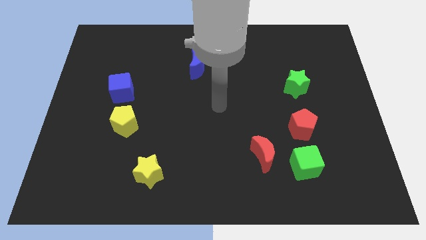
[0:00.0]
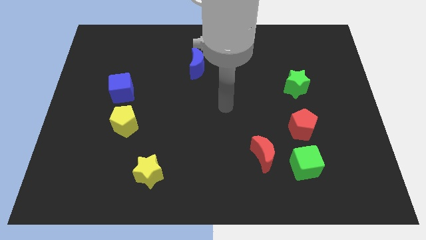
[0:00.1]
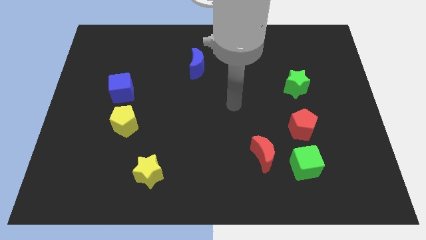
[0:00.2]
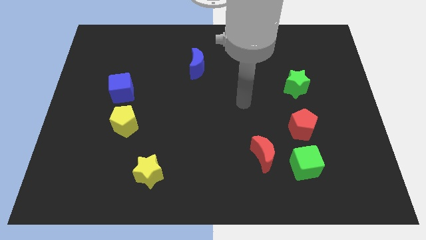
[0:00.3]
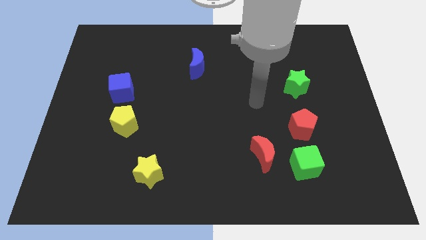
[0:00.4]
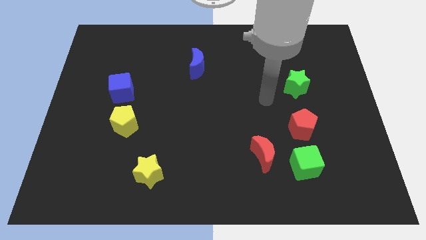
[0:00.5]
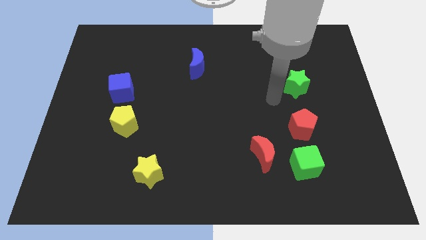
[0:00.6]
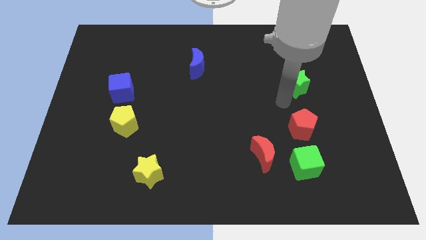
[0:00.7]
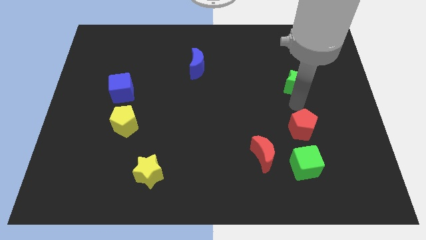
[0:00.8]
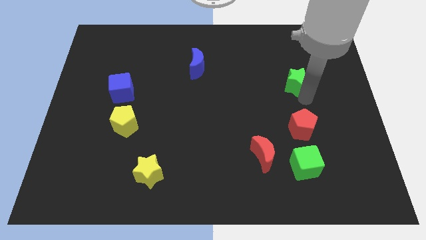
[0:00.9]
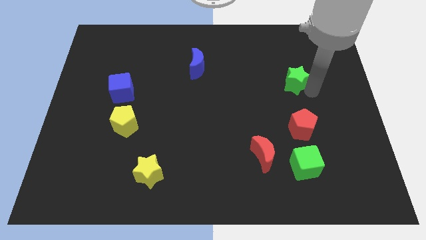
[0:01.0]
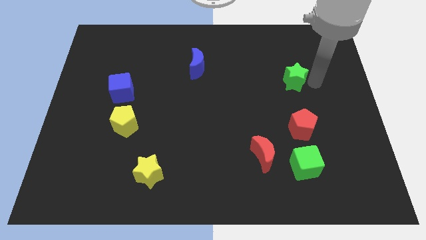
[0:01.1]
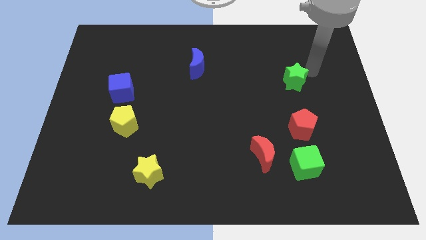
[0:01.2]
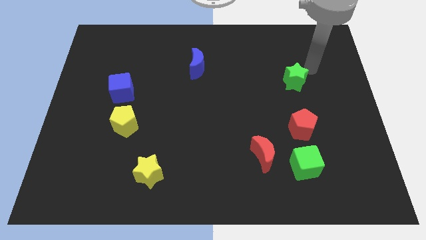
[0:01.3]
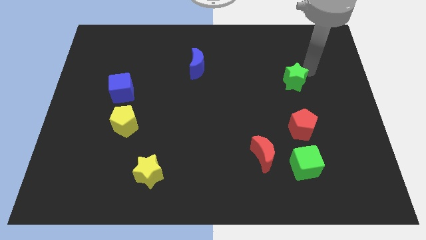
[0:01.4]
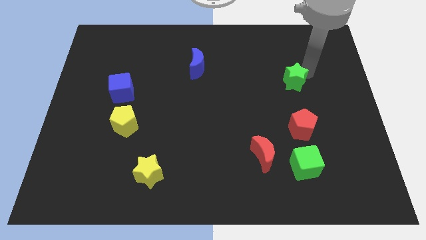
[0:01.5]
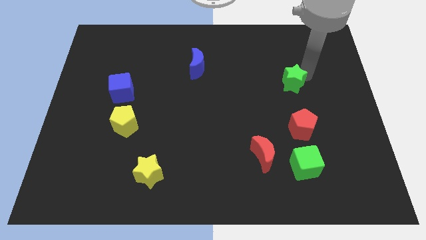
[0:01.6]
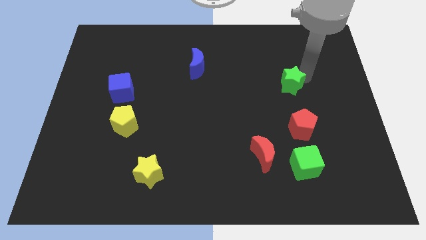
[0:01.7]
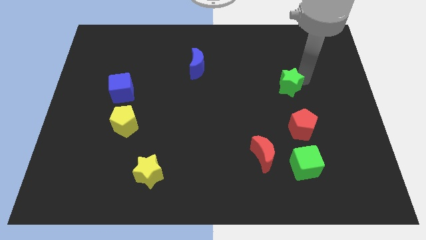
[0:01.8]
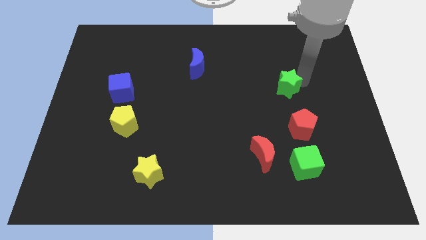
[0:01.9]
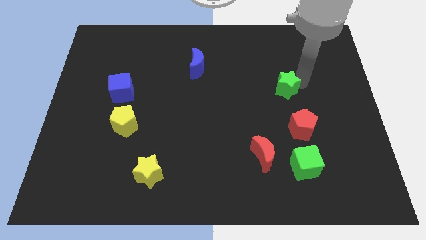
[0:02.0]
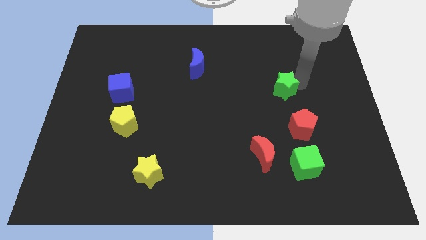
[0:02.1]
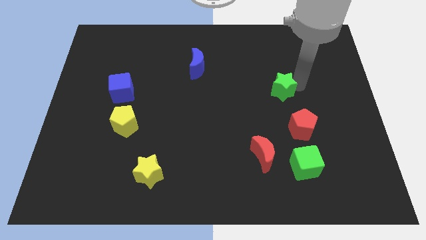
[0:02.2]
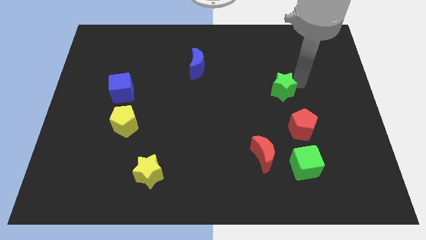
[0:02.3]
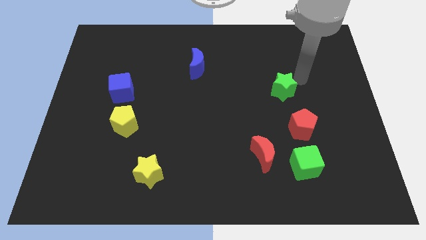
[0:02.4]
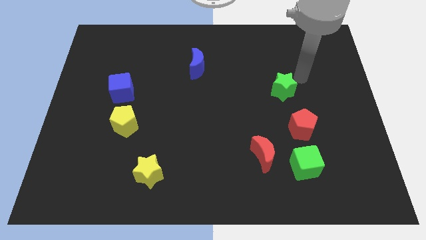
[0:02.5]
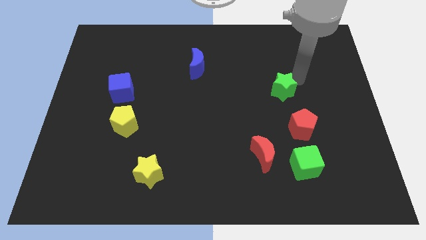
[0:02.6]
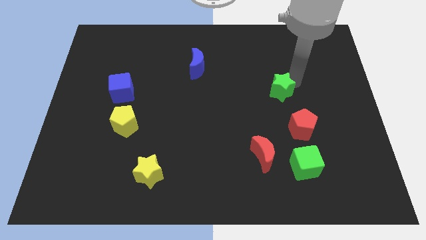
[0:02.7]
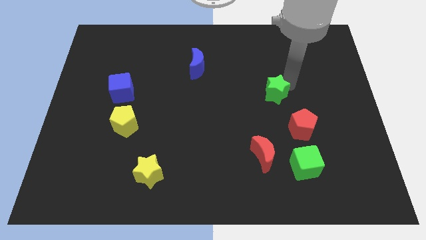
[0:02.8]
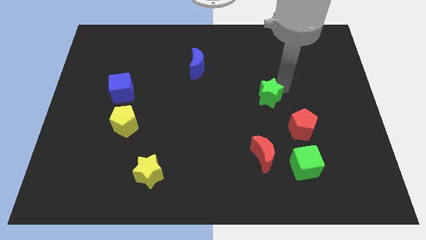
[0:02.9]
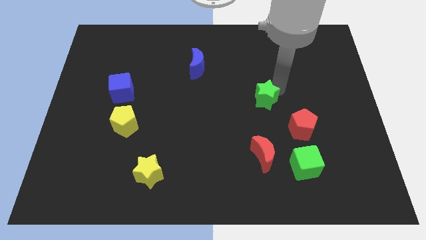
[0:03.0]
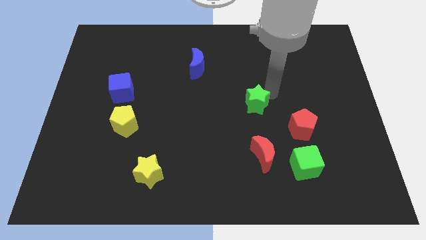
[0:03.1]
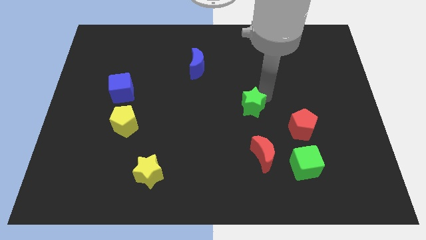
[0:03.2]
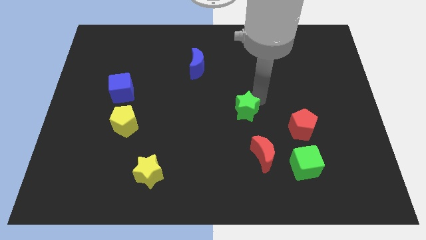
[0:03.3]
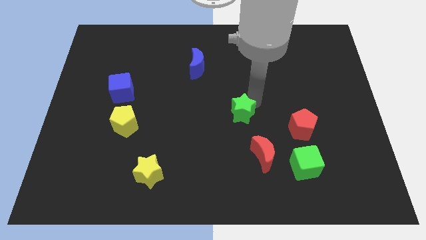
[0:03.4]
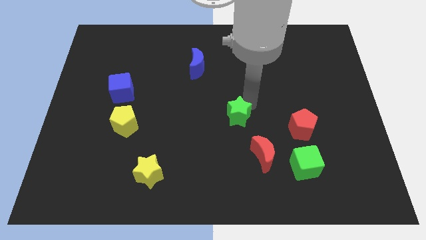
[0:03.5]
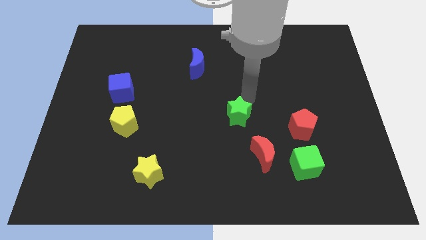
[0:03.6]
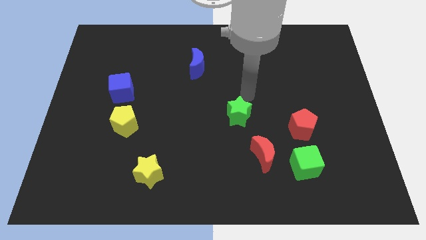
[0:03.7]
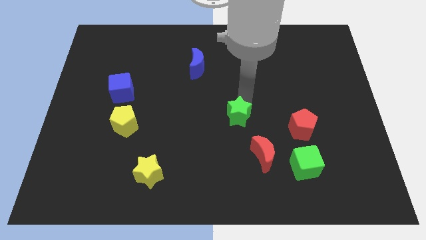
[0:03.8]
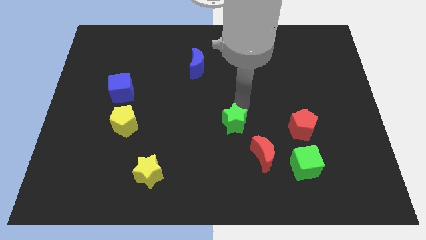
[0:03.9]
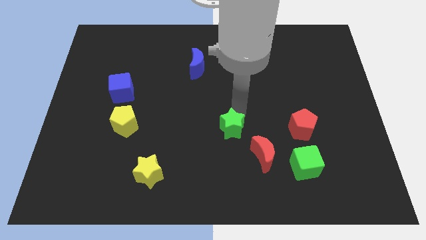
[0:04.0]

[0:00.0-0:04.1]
push the green star down and to the left diagonally

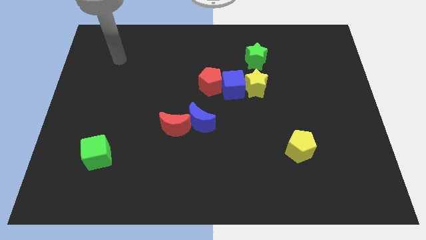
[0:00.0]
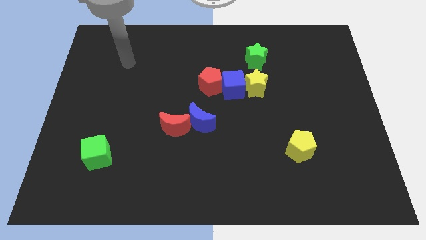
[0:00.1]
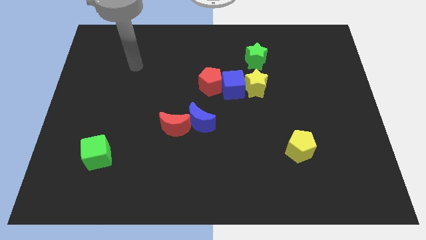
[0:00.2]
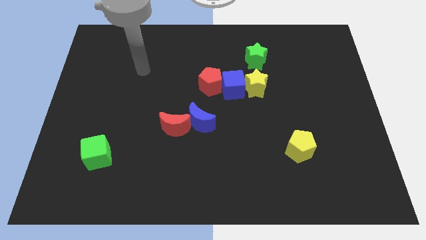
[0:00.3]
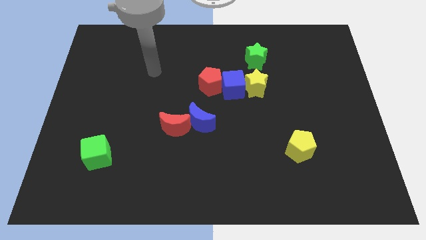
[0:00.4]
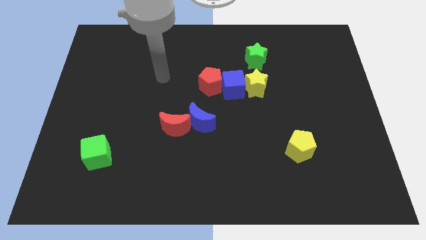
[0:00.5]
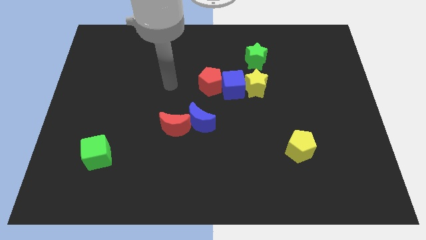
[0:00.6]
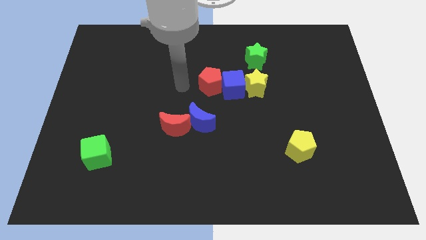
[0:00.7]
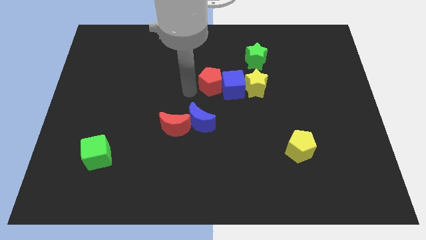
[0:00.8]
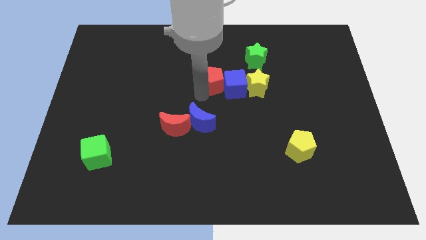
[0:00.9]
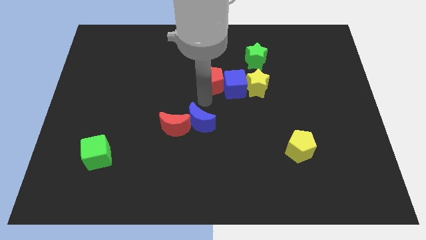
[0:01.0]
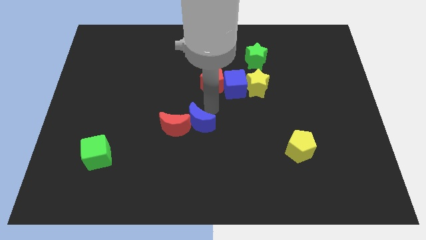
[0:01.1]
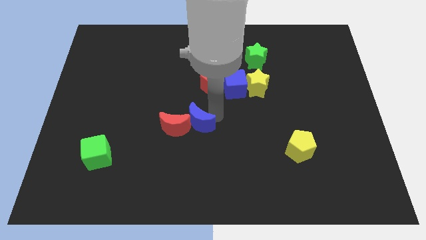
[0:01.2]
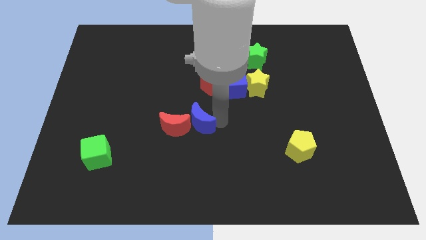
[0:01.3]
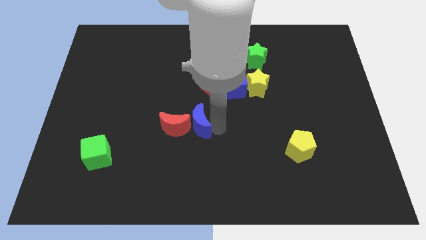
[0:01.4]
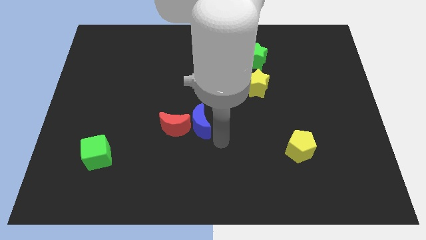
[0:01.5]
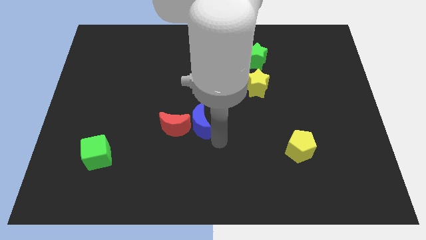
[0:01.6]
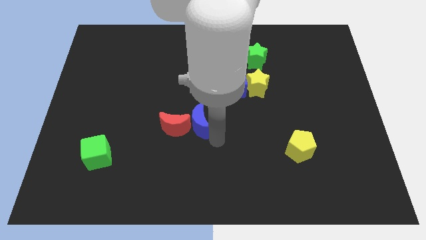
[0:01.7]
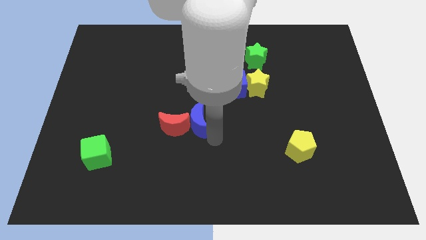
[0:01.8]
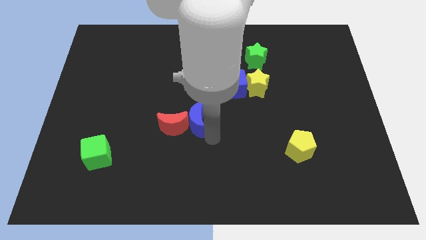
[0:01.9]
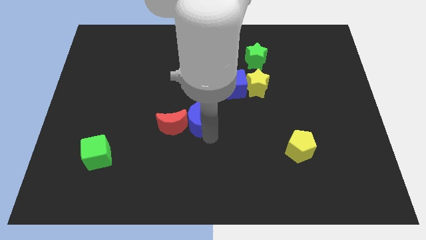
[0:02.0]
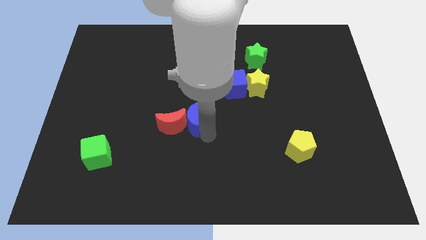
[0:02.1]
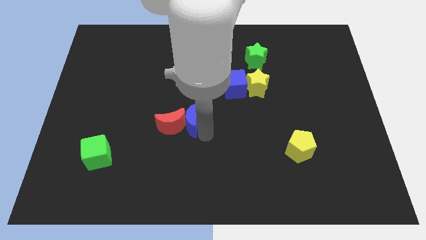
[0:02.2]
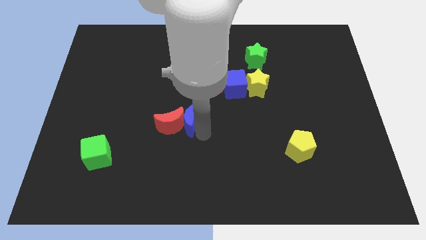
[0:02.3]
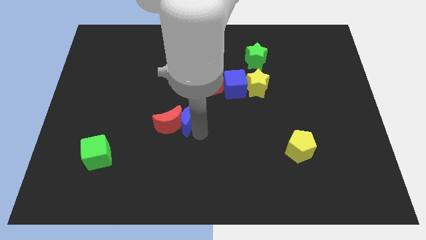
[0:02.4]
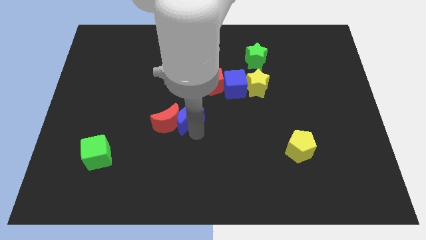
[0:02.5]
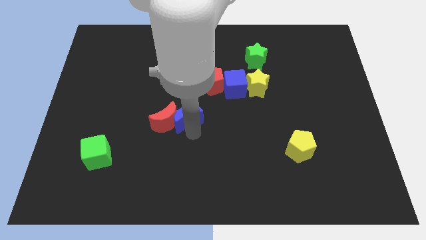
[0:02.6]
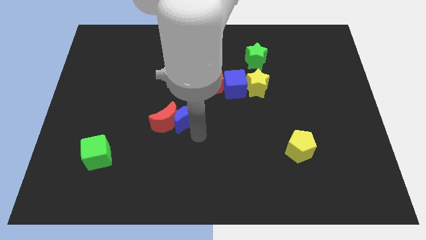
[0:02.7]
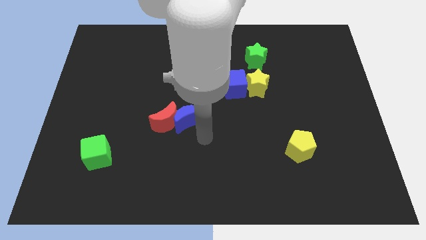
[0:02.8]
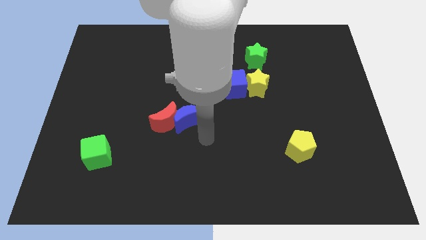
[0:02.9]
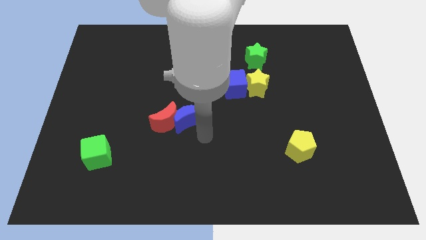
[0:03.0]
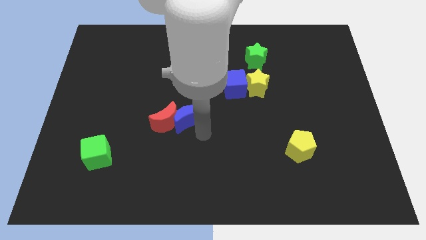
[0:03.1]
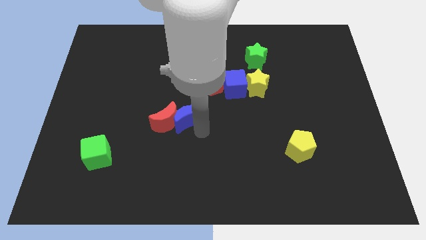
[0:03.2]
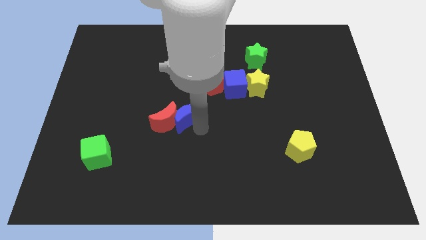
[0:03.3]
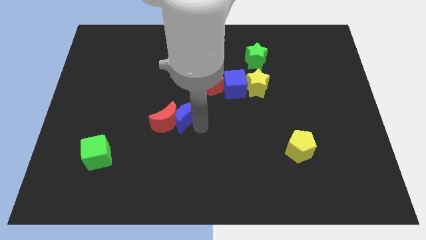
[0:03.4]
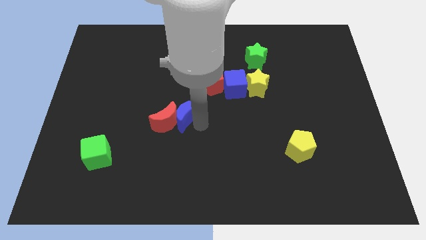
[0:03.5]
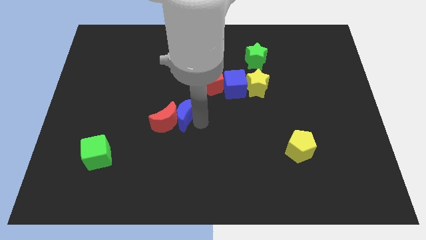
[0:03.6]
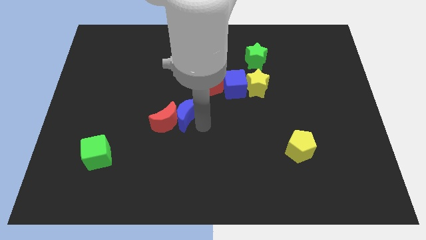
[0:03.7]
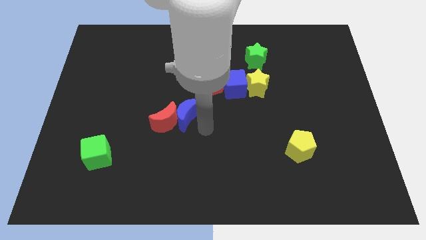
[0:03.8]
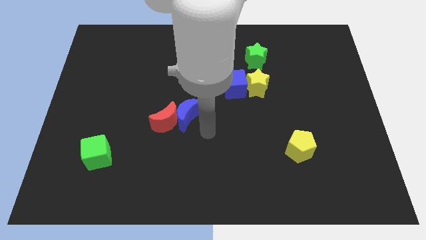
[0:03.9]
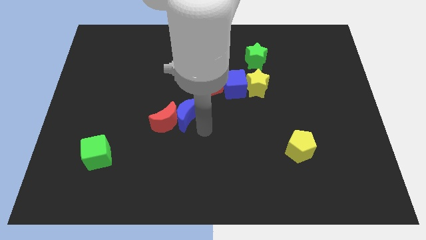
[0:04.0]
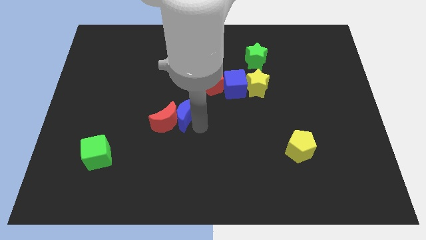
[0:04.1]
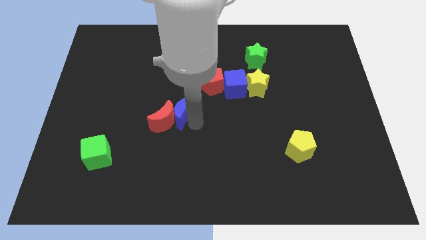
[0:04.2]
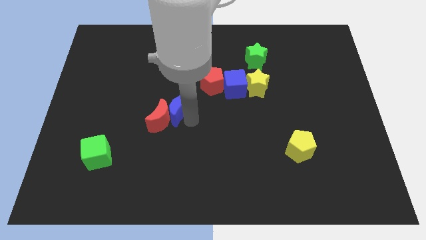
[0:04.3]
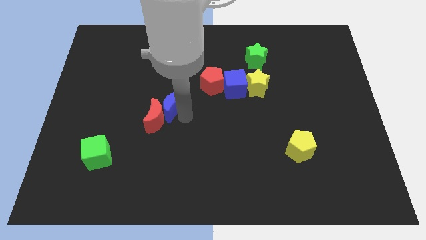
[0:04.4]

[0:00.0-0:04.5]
push the blue moon a little up and to the left diagonally
